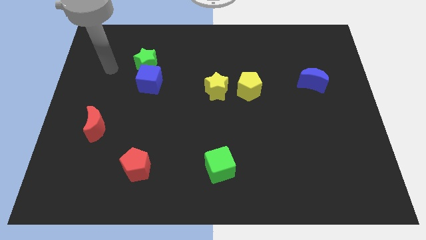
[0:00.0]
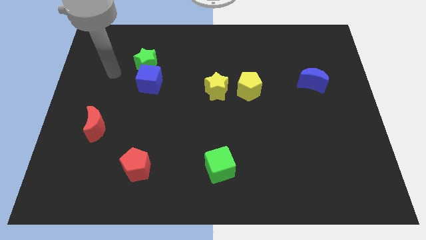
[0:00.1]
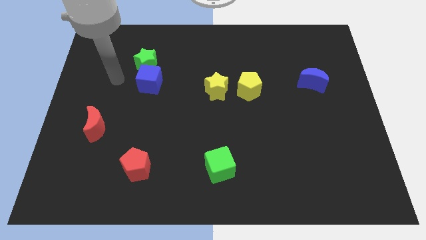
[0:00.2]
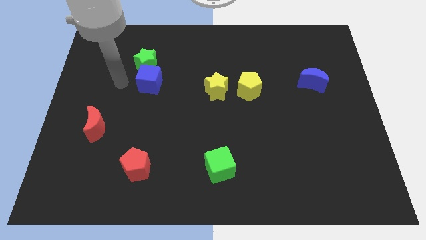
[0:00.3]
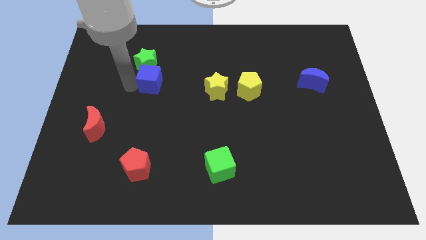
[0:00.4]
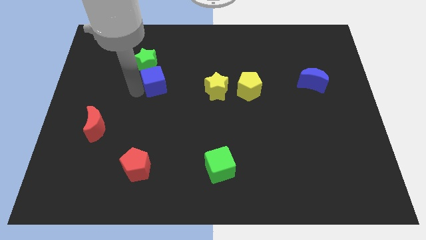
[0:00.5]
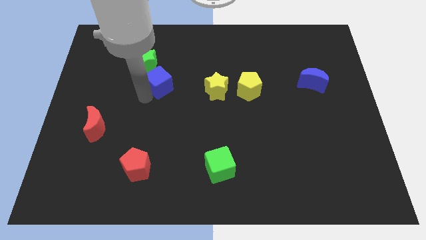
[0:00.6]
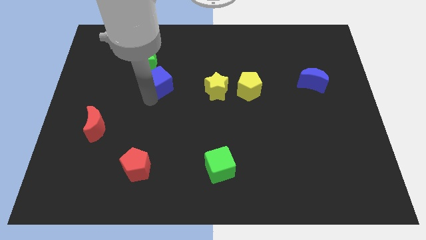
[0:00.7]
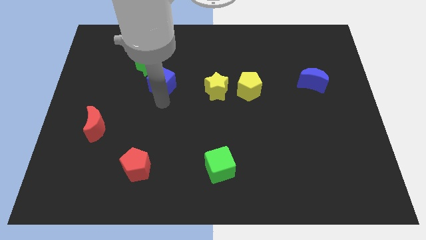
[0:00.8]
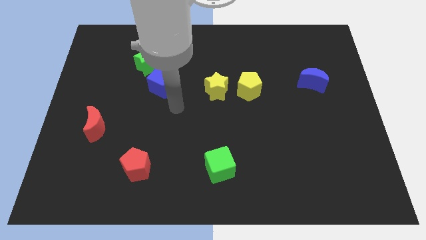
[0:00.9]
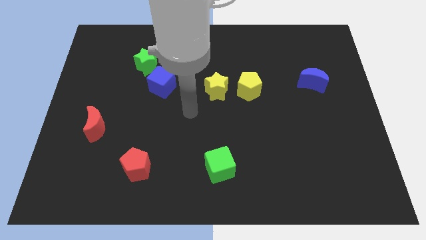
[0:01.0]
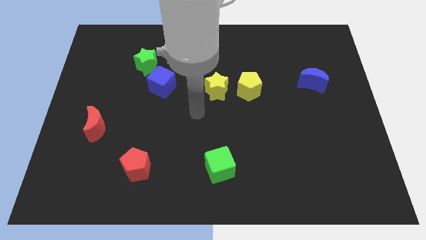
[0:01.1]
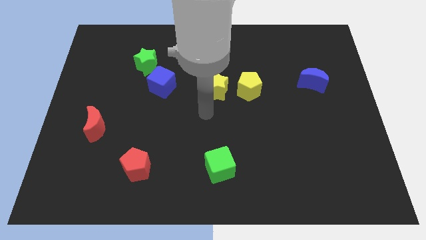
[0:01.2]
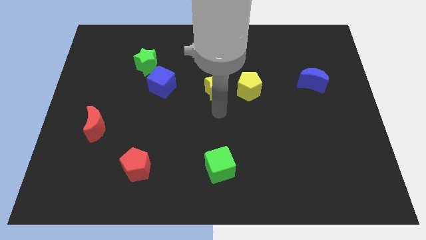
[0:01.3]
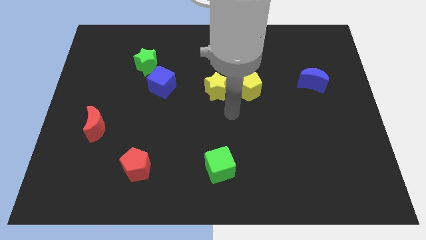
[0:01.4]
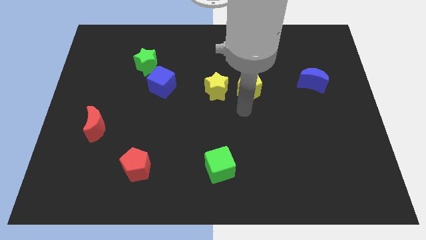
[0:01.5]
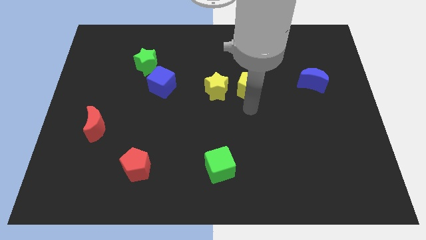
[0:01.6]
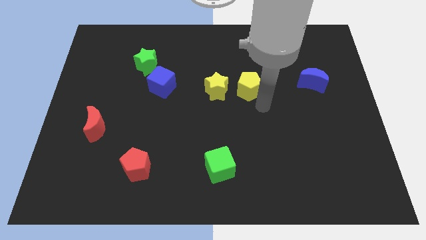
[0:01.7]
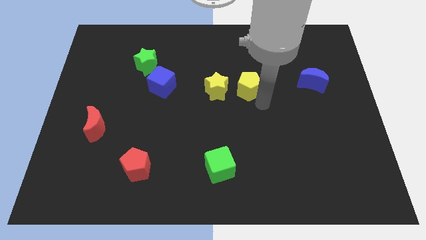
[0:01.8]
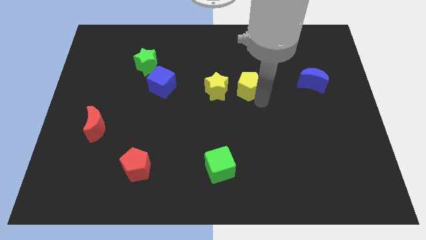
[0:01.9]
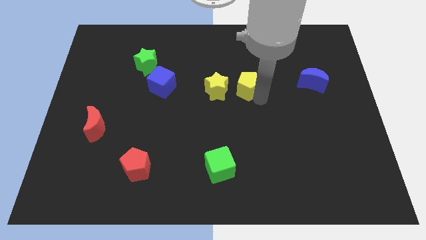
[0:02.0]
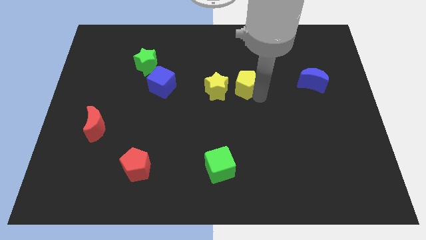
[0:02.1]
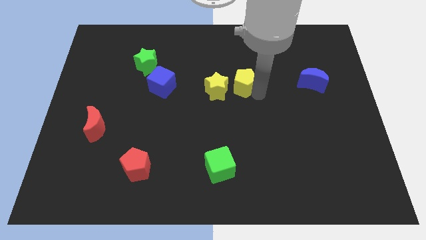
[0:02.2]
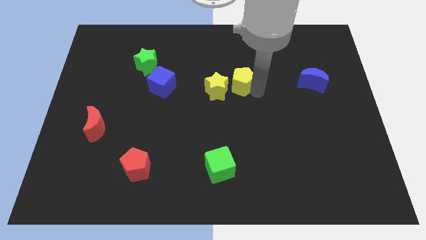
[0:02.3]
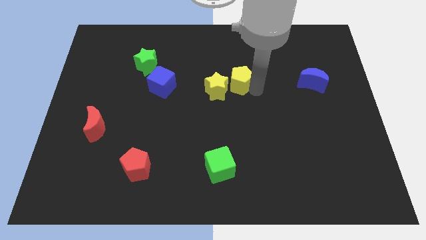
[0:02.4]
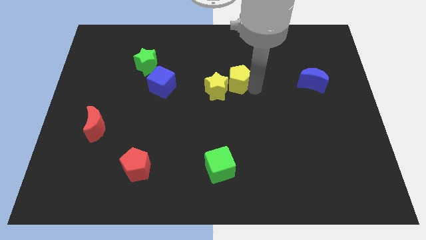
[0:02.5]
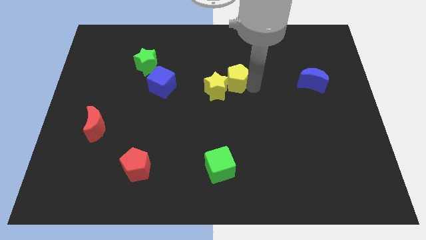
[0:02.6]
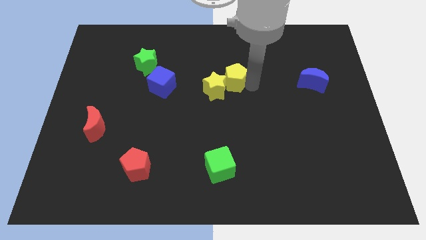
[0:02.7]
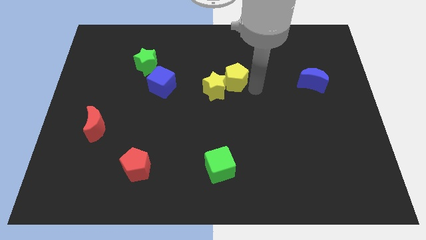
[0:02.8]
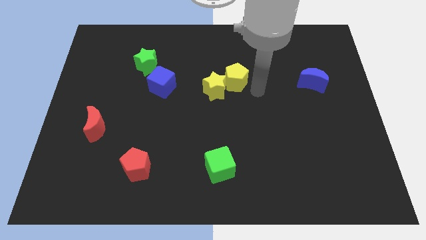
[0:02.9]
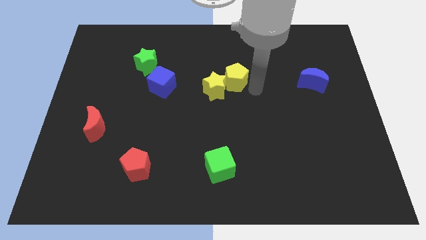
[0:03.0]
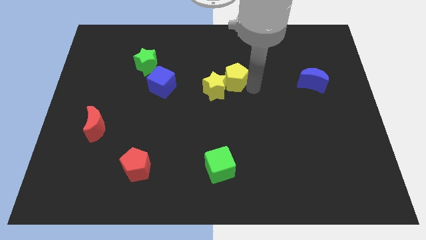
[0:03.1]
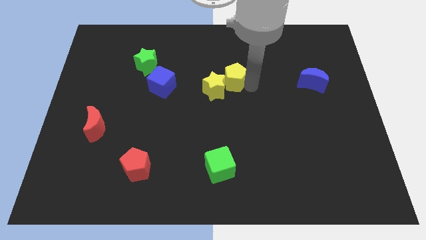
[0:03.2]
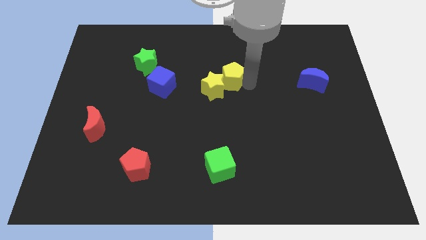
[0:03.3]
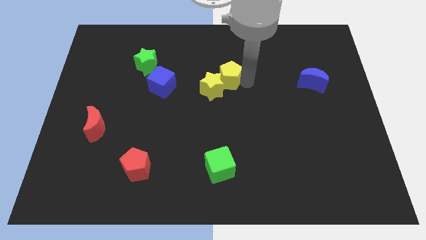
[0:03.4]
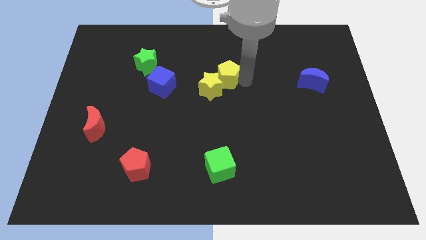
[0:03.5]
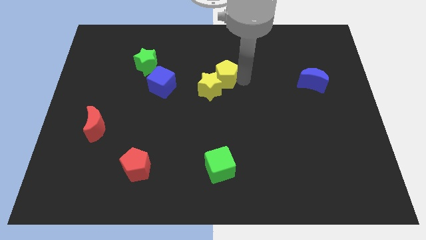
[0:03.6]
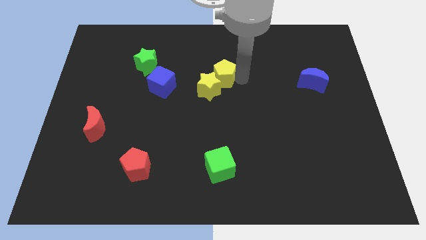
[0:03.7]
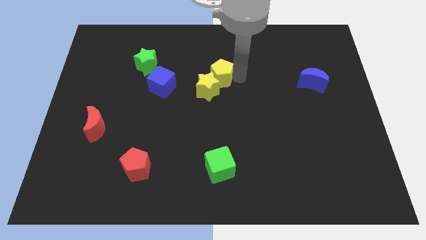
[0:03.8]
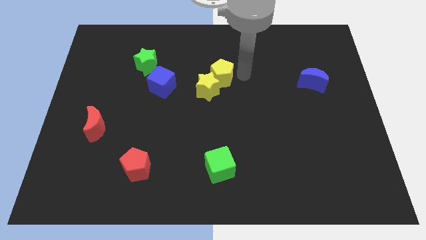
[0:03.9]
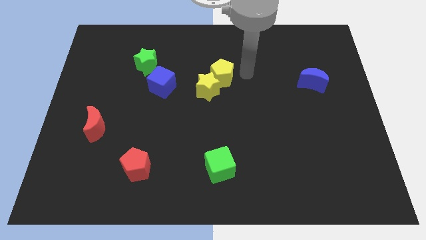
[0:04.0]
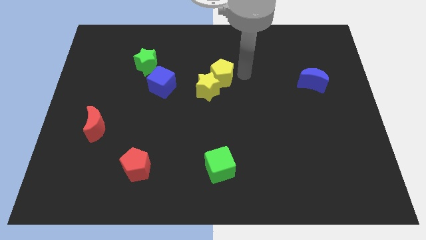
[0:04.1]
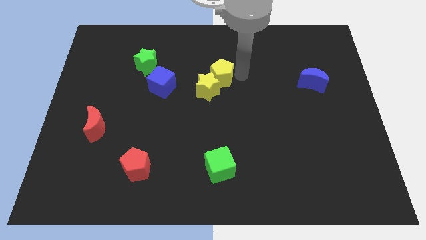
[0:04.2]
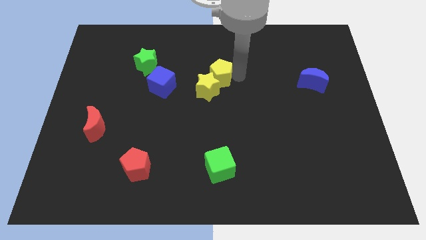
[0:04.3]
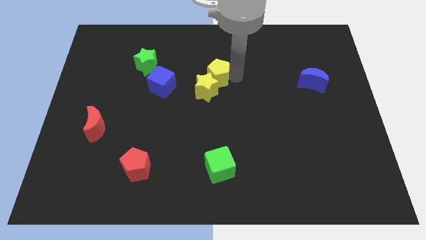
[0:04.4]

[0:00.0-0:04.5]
push the yellow pentagon to the left a little

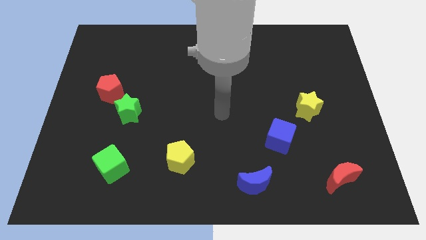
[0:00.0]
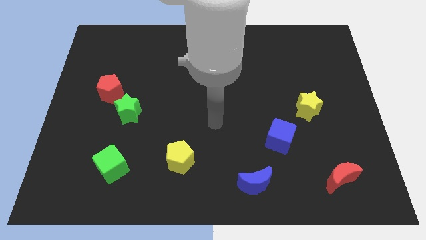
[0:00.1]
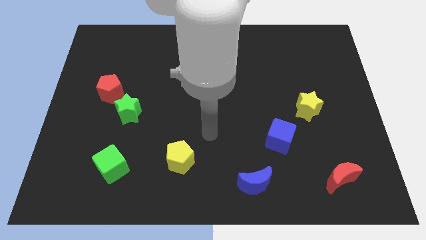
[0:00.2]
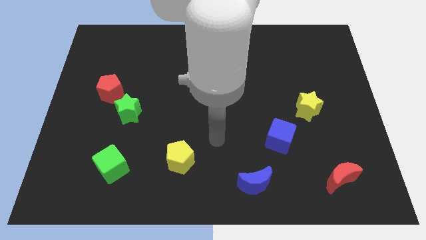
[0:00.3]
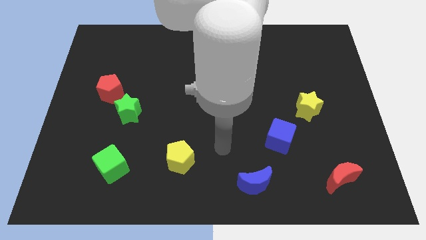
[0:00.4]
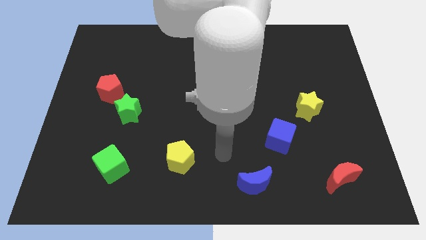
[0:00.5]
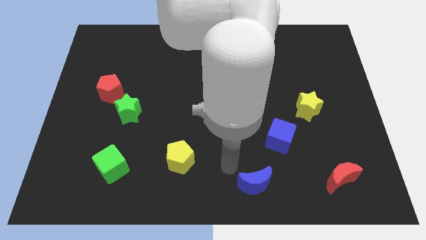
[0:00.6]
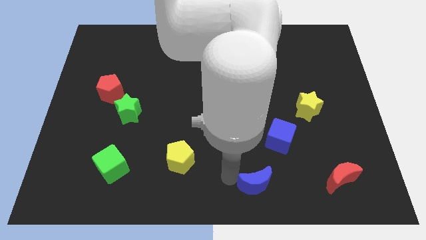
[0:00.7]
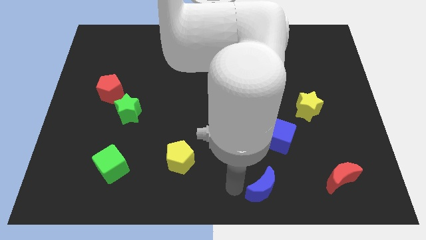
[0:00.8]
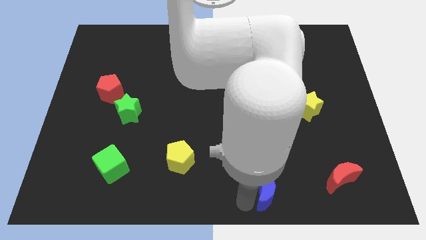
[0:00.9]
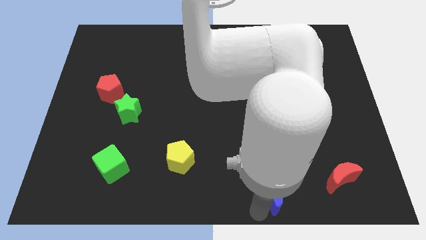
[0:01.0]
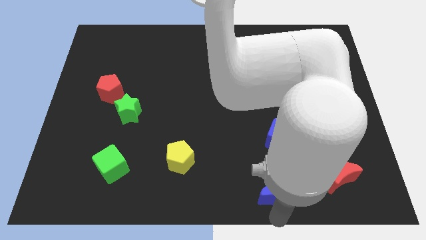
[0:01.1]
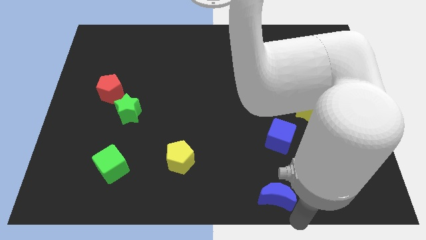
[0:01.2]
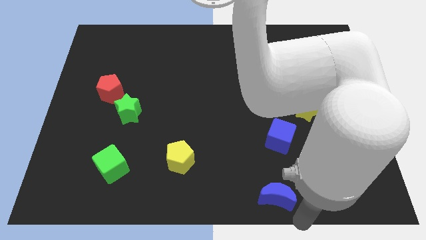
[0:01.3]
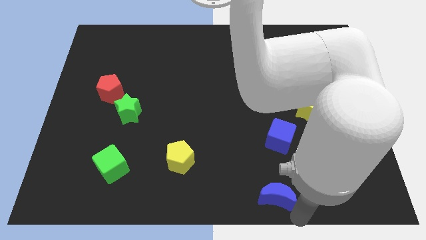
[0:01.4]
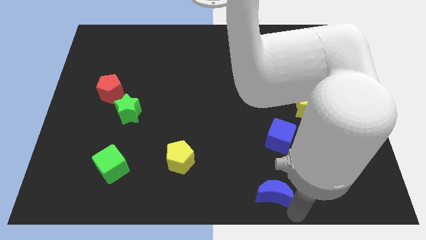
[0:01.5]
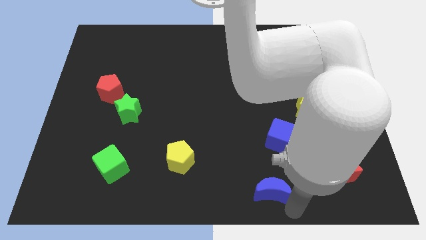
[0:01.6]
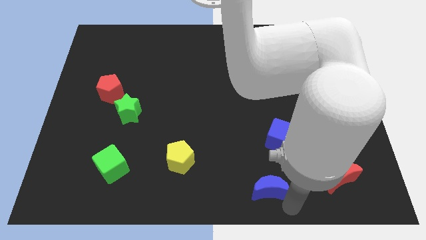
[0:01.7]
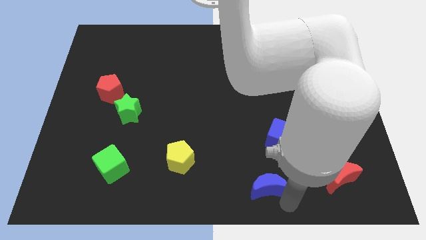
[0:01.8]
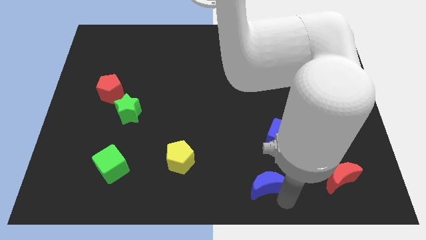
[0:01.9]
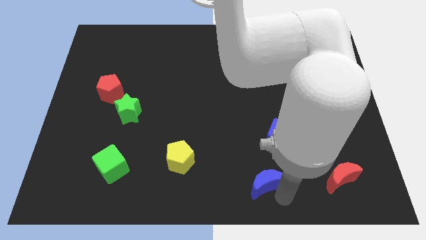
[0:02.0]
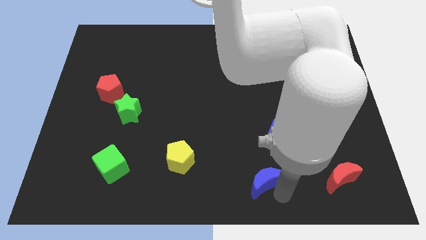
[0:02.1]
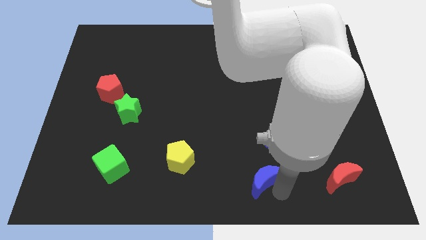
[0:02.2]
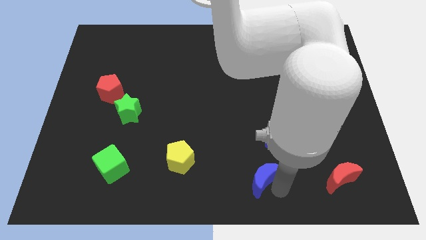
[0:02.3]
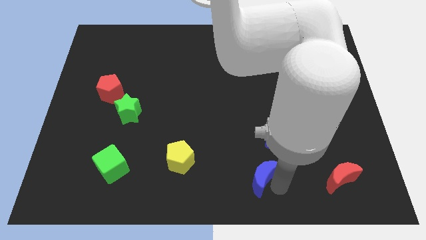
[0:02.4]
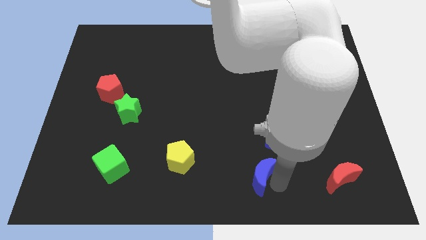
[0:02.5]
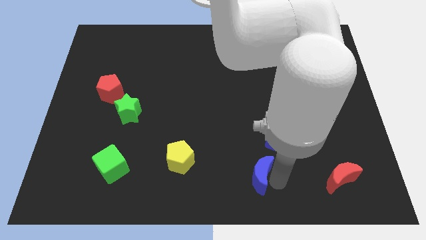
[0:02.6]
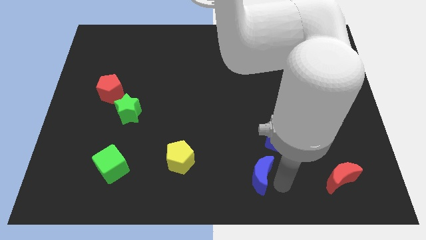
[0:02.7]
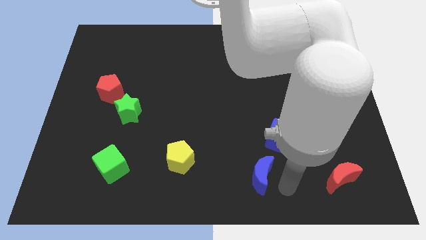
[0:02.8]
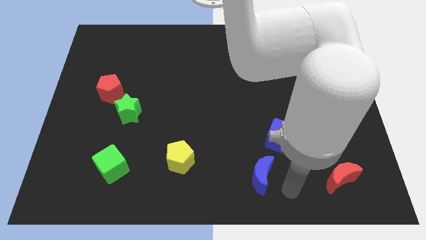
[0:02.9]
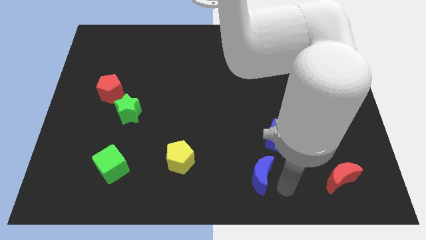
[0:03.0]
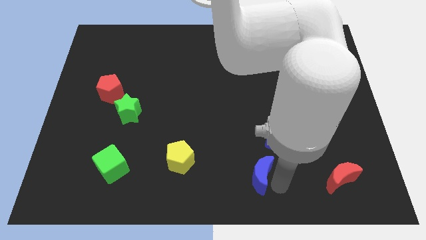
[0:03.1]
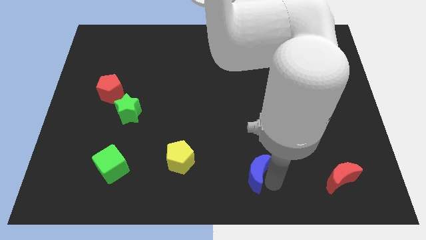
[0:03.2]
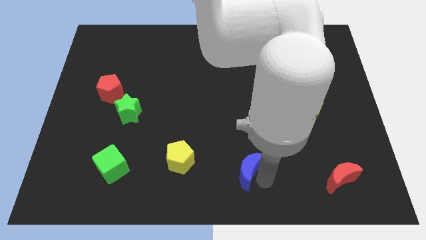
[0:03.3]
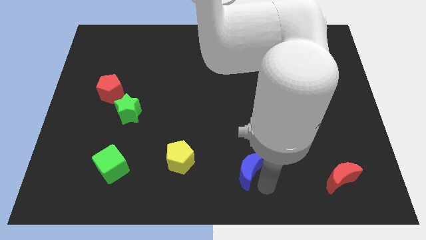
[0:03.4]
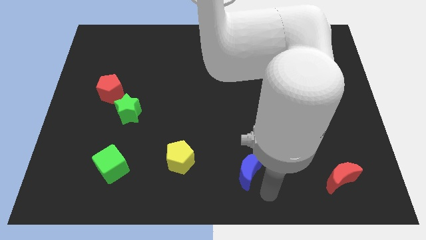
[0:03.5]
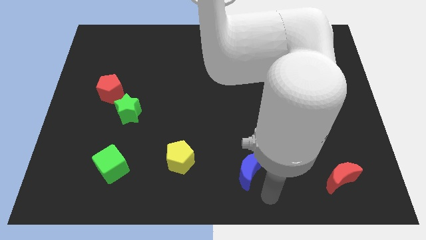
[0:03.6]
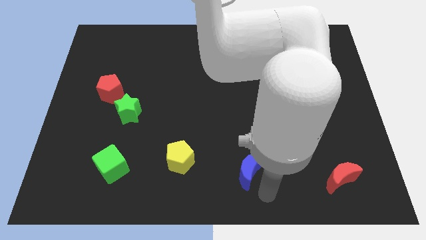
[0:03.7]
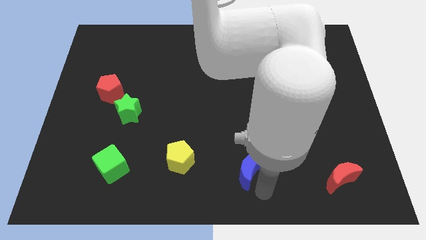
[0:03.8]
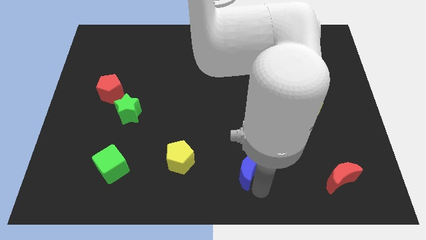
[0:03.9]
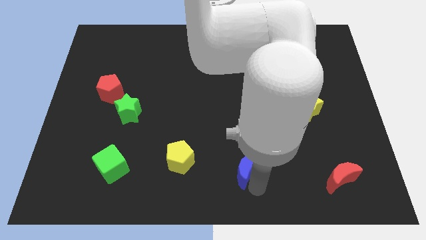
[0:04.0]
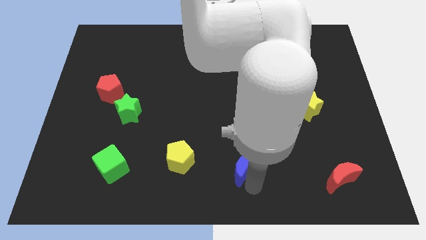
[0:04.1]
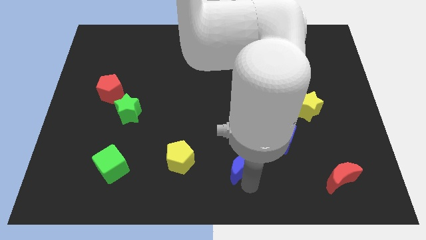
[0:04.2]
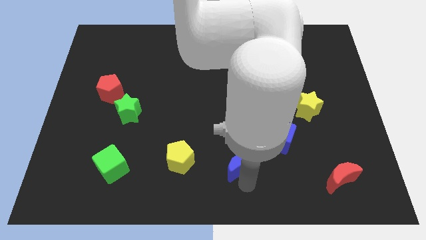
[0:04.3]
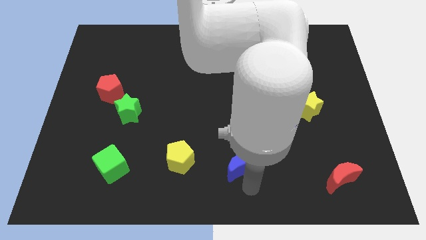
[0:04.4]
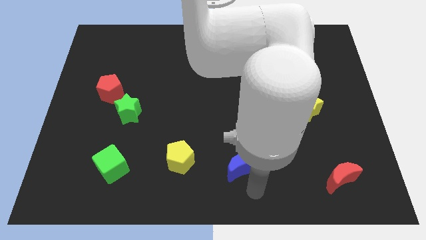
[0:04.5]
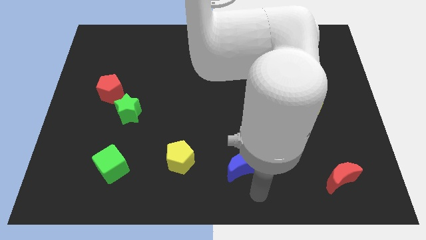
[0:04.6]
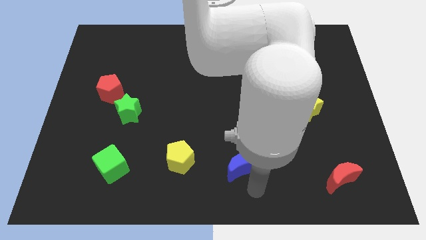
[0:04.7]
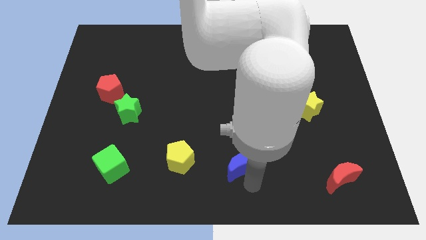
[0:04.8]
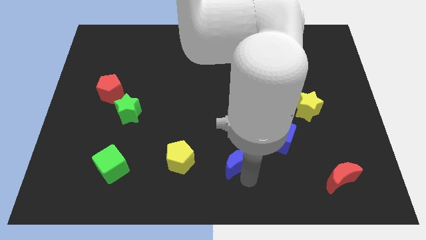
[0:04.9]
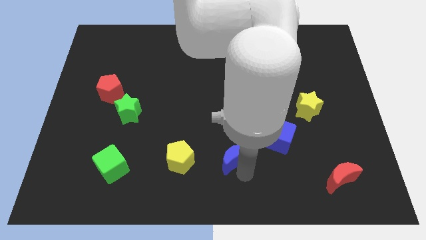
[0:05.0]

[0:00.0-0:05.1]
slide the blue moon diagonally up and to the left a little bit
